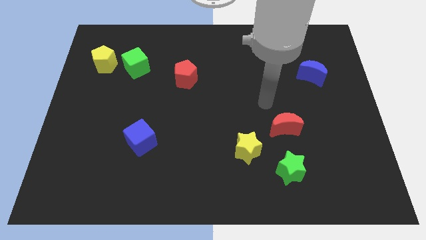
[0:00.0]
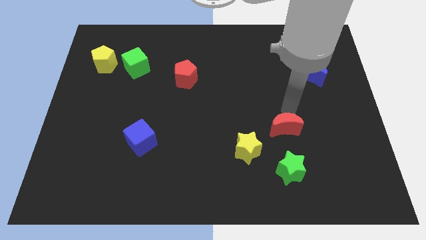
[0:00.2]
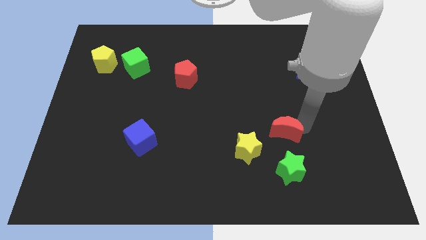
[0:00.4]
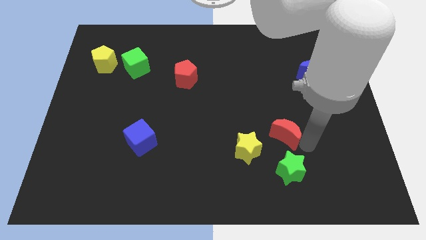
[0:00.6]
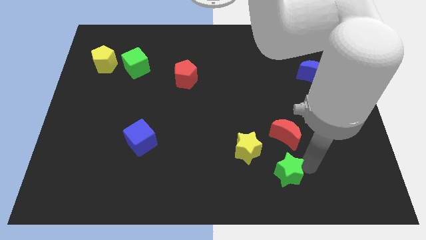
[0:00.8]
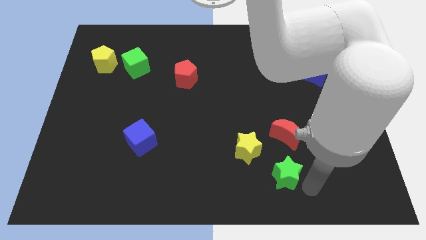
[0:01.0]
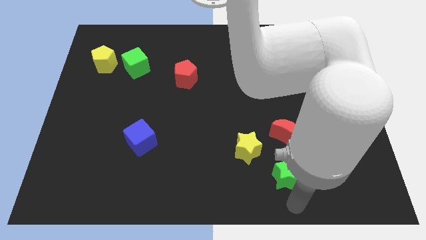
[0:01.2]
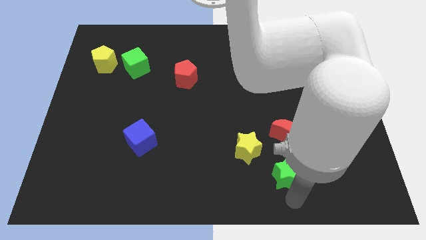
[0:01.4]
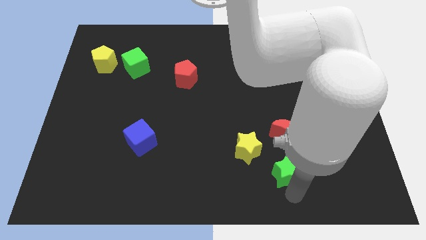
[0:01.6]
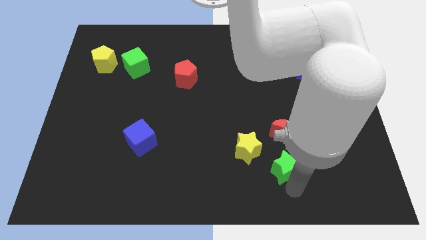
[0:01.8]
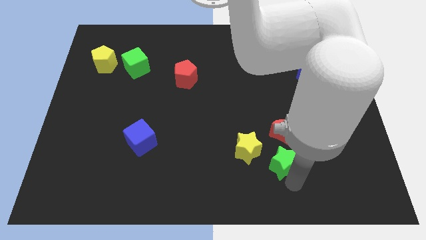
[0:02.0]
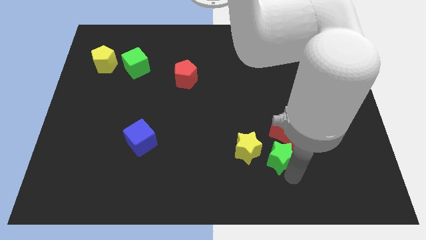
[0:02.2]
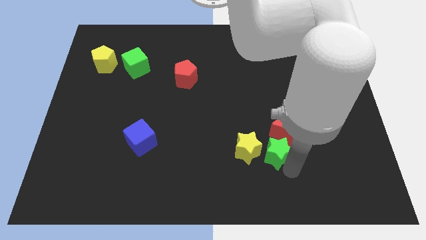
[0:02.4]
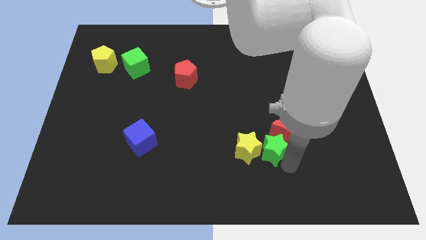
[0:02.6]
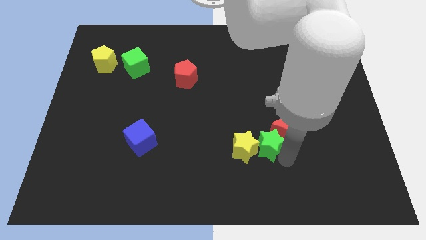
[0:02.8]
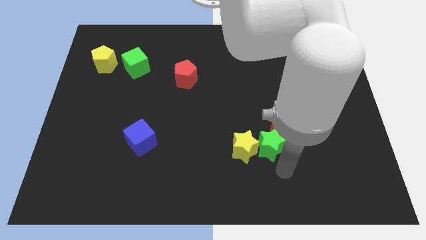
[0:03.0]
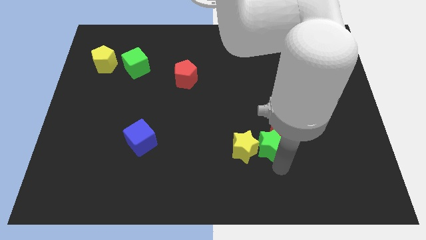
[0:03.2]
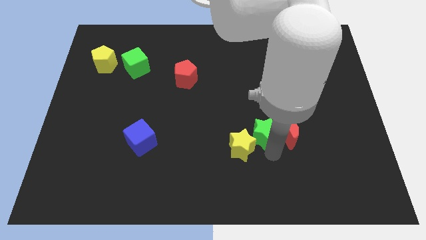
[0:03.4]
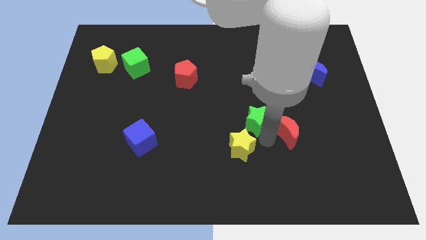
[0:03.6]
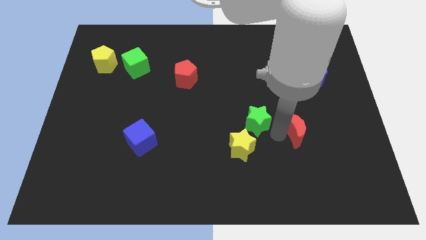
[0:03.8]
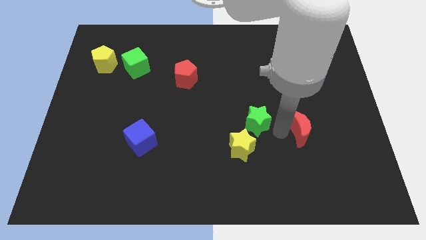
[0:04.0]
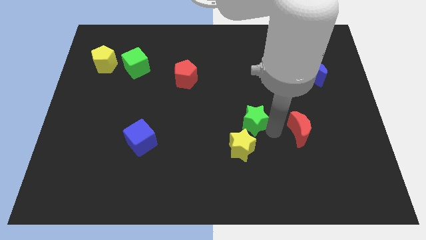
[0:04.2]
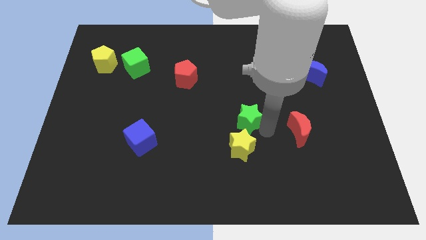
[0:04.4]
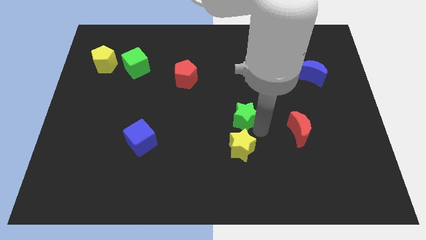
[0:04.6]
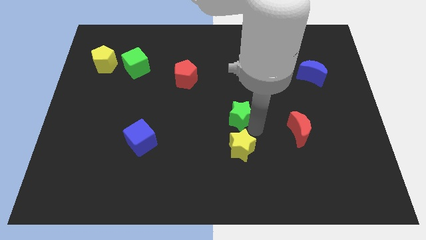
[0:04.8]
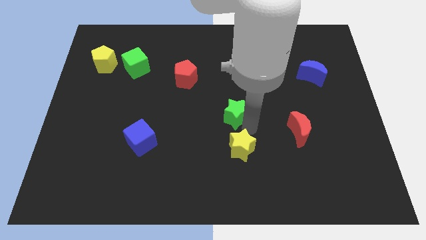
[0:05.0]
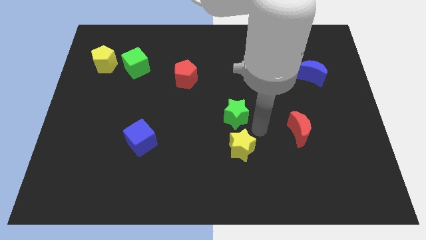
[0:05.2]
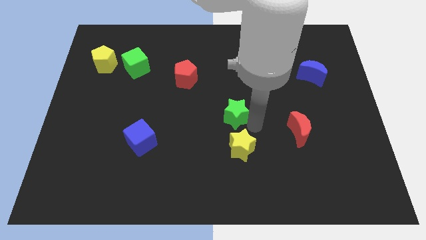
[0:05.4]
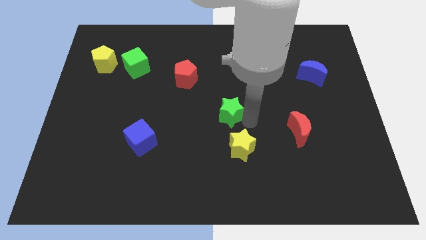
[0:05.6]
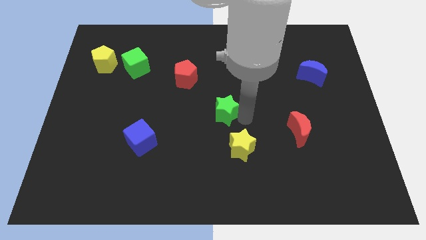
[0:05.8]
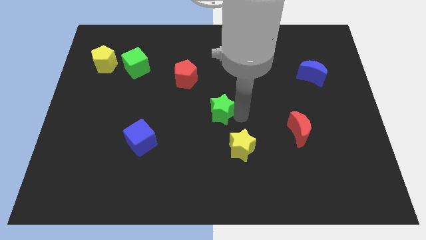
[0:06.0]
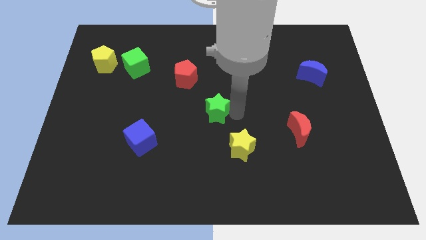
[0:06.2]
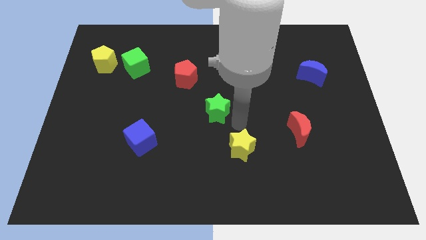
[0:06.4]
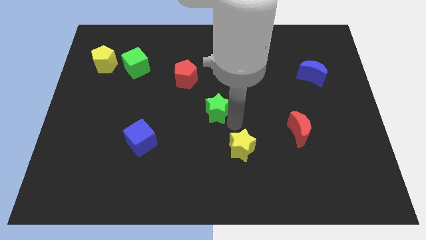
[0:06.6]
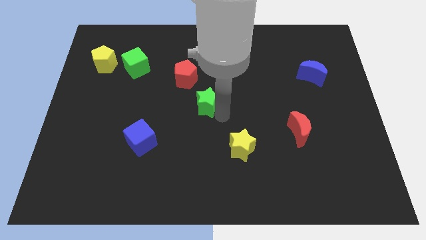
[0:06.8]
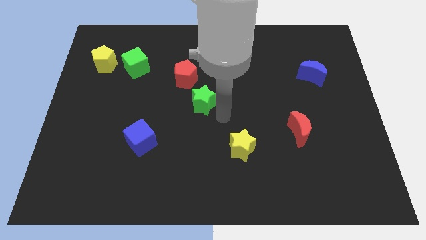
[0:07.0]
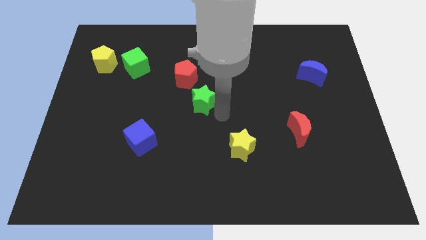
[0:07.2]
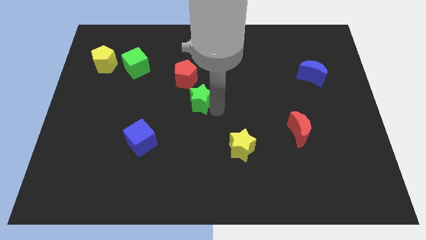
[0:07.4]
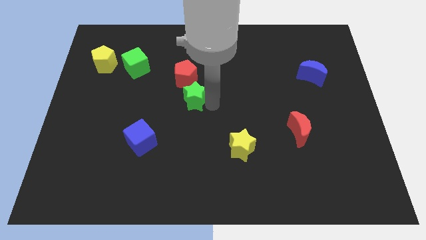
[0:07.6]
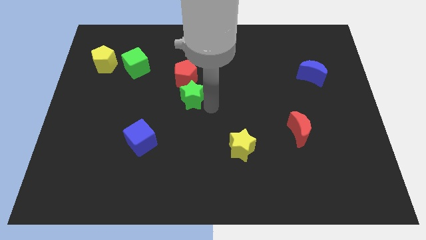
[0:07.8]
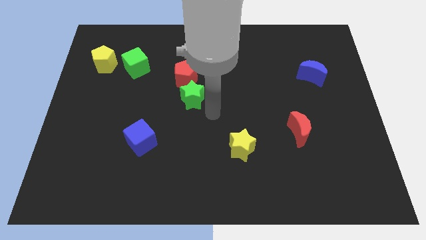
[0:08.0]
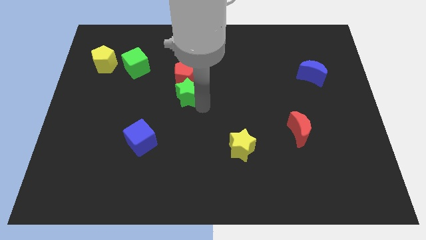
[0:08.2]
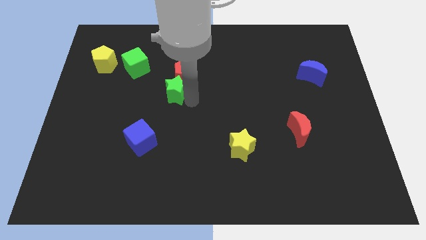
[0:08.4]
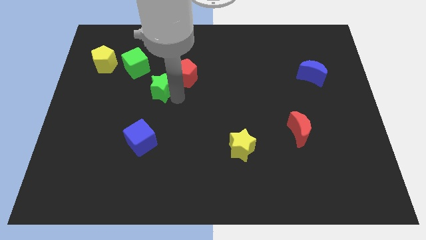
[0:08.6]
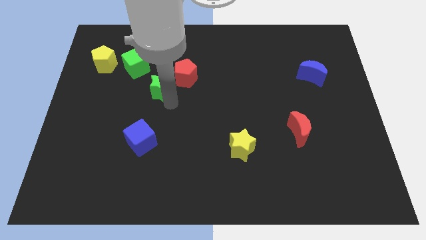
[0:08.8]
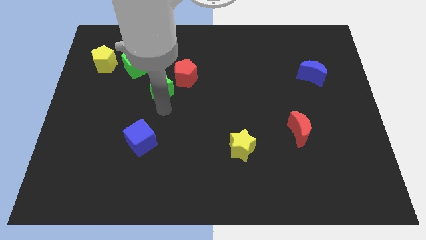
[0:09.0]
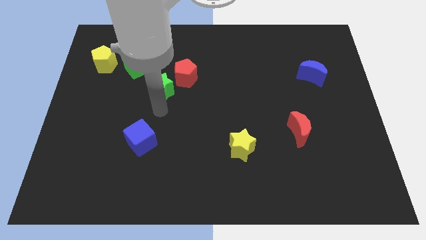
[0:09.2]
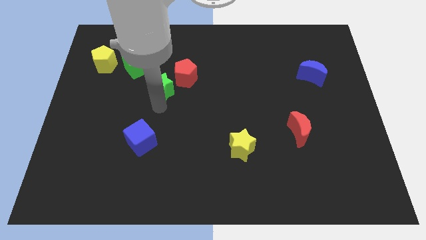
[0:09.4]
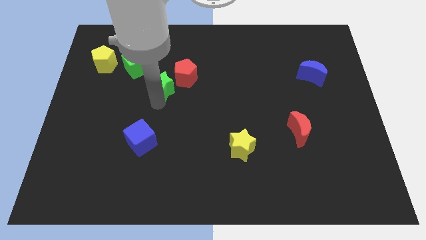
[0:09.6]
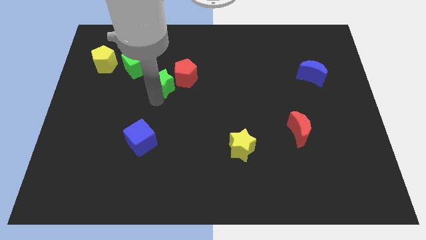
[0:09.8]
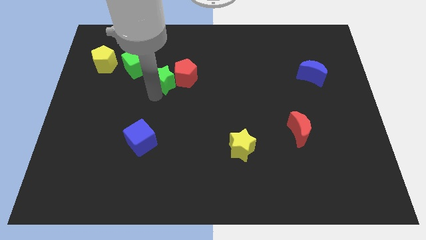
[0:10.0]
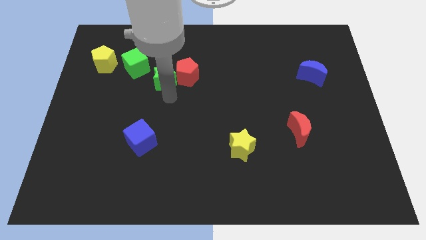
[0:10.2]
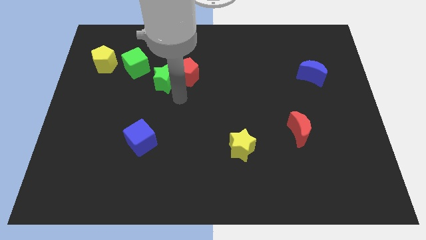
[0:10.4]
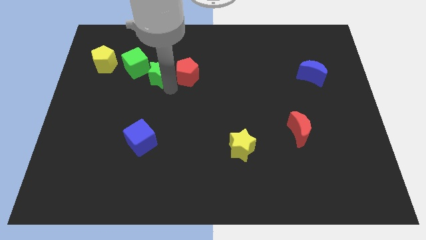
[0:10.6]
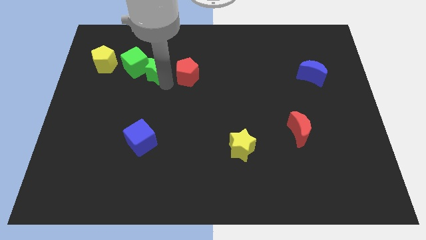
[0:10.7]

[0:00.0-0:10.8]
slide the green star right of the yellow pentagon
